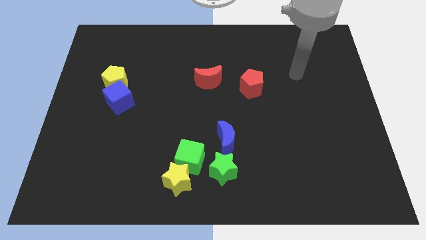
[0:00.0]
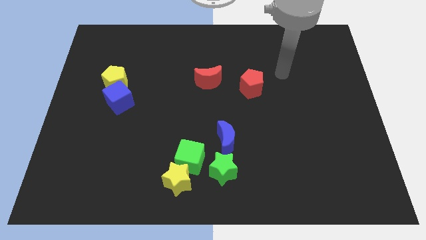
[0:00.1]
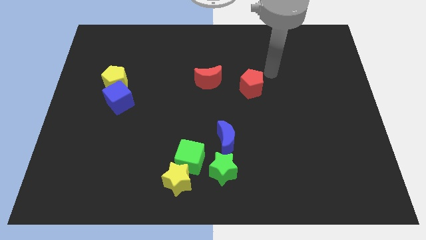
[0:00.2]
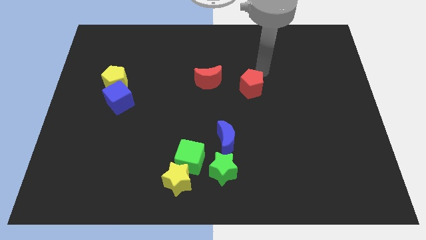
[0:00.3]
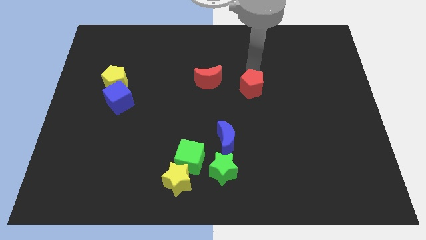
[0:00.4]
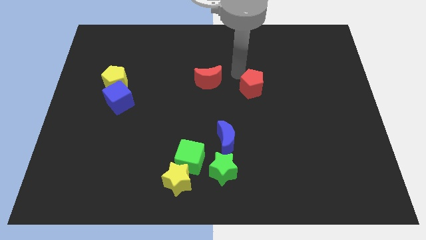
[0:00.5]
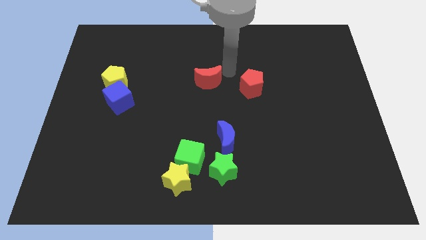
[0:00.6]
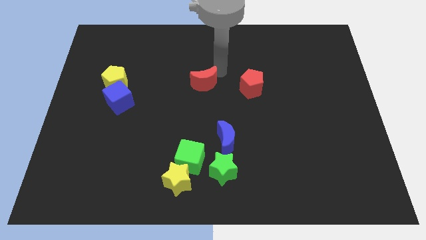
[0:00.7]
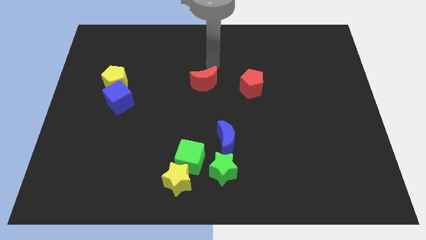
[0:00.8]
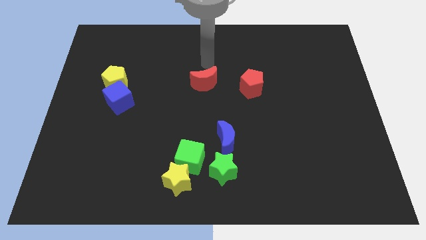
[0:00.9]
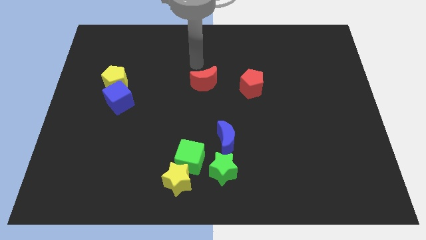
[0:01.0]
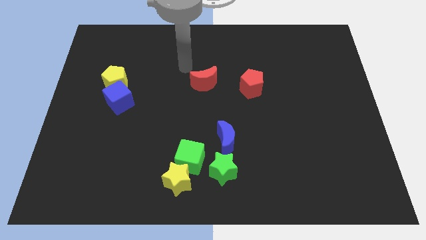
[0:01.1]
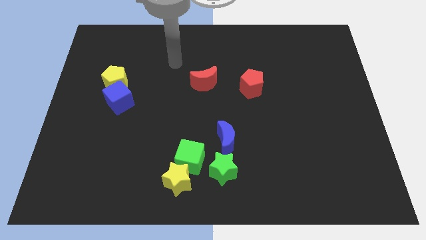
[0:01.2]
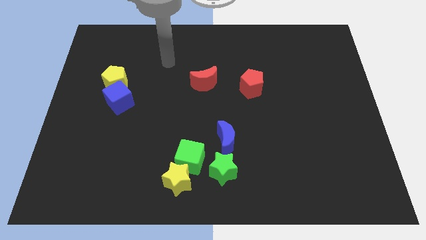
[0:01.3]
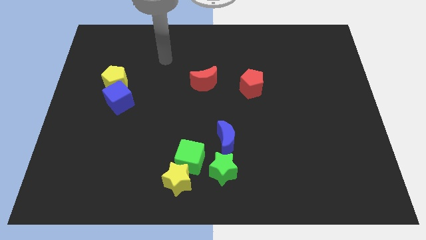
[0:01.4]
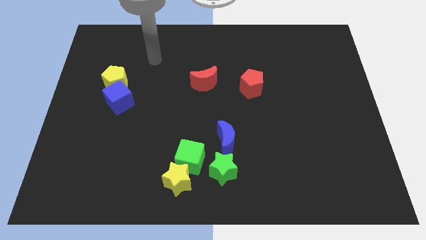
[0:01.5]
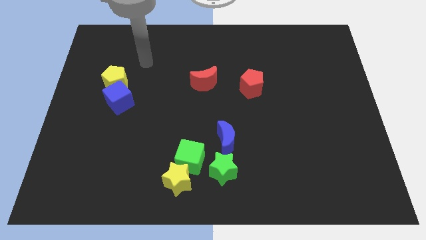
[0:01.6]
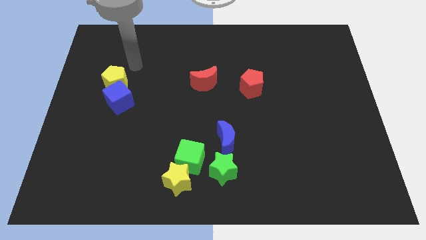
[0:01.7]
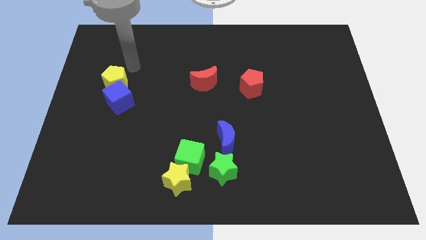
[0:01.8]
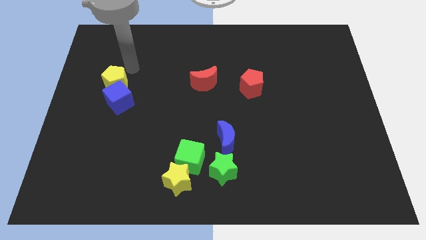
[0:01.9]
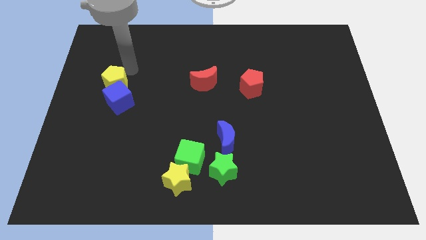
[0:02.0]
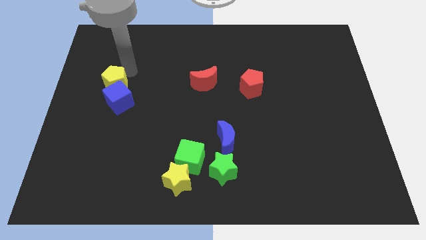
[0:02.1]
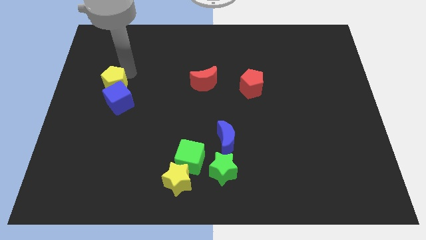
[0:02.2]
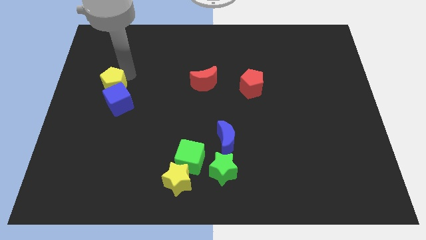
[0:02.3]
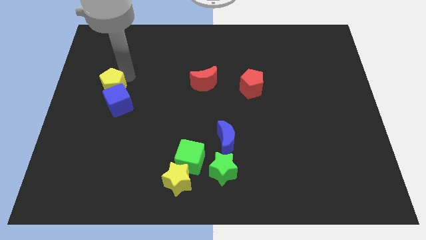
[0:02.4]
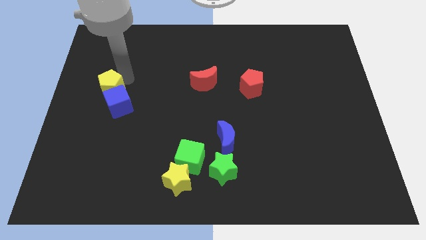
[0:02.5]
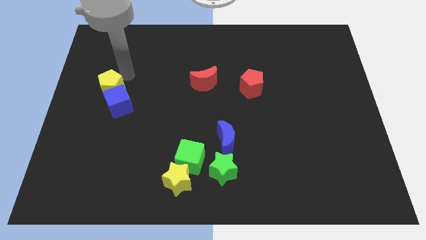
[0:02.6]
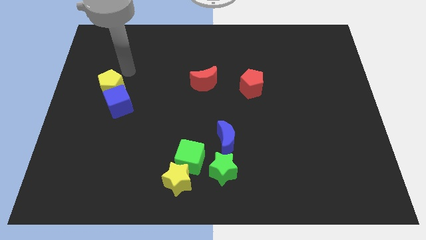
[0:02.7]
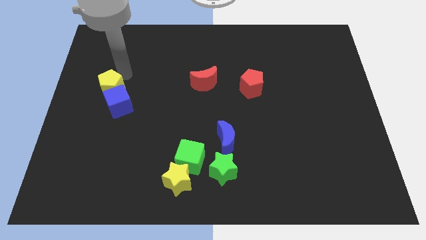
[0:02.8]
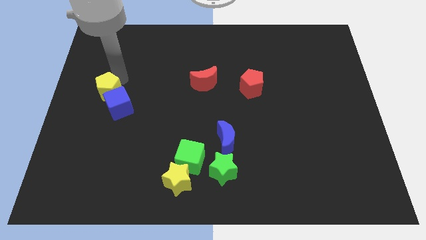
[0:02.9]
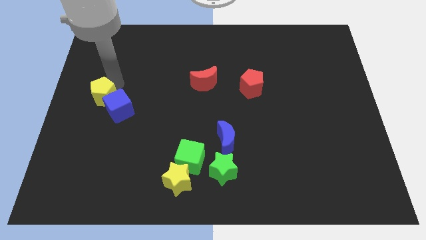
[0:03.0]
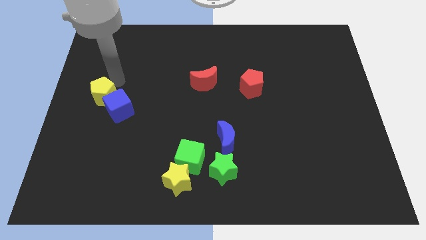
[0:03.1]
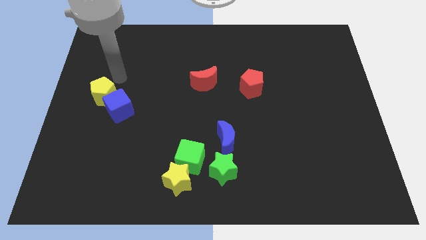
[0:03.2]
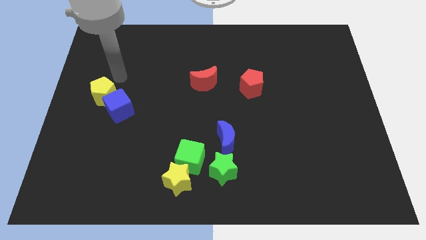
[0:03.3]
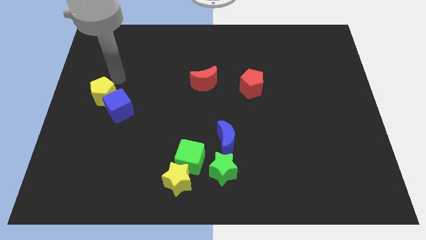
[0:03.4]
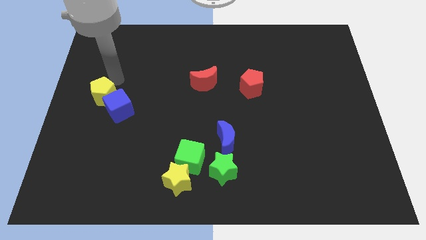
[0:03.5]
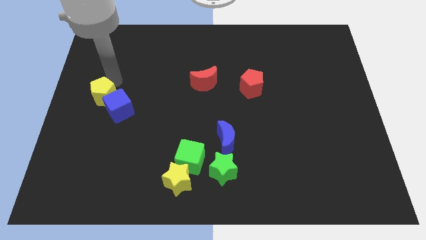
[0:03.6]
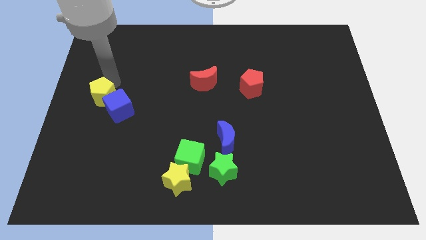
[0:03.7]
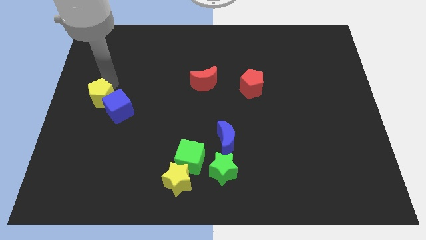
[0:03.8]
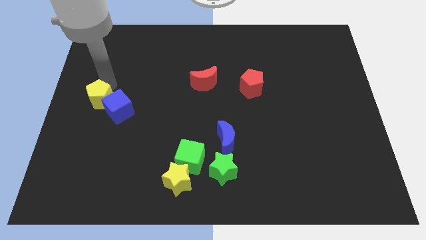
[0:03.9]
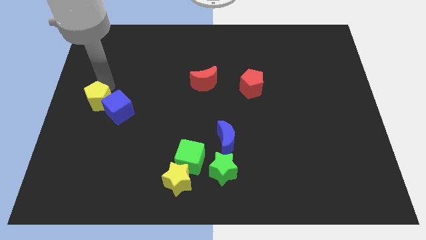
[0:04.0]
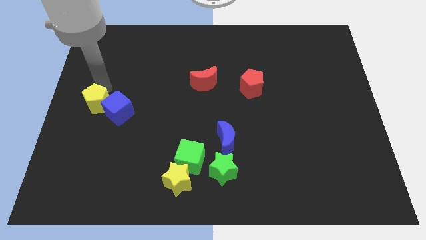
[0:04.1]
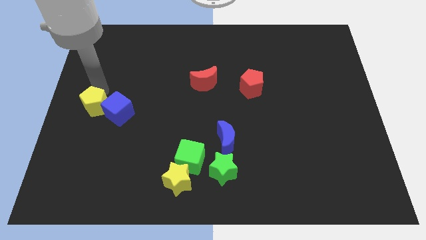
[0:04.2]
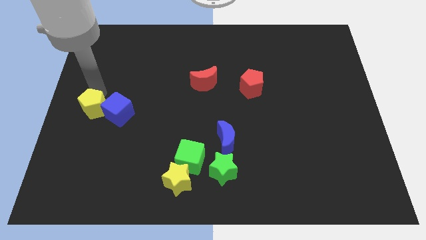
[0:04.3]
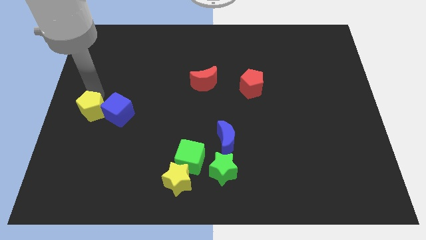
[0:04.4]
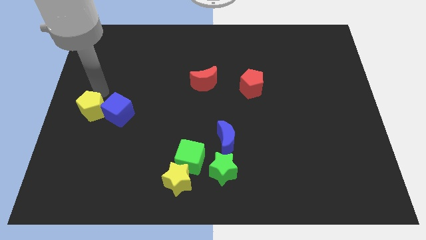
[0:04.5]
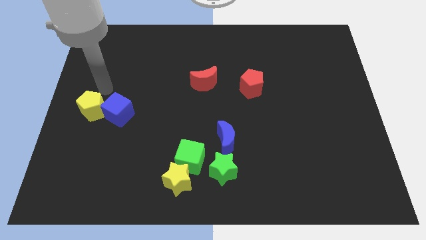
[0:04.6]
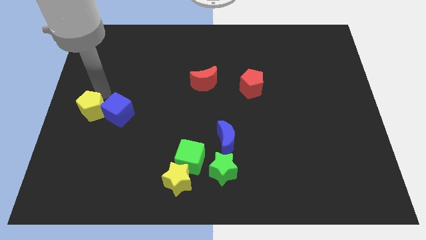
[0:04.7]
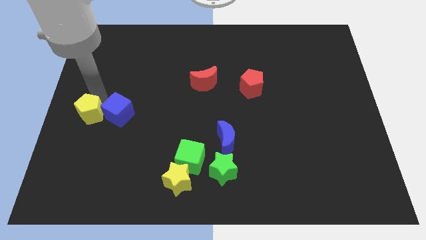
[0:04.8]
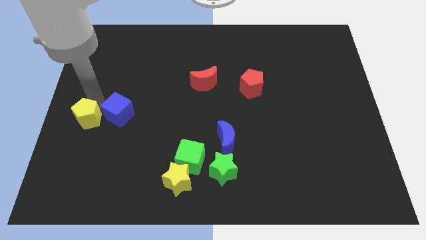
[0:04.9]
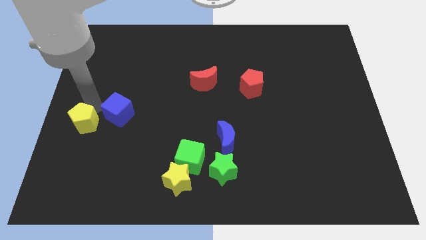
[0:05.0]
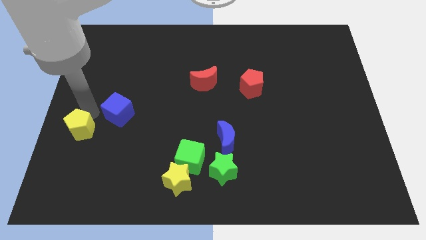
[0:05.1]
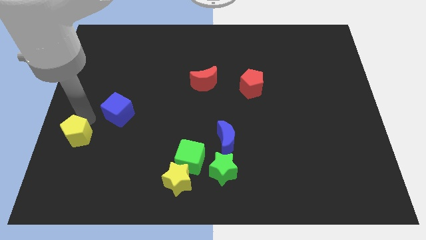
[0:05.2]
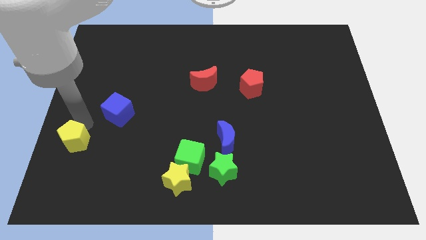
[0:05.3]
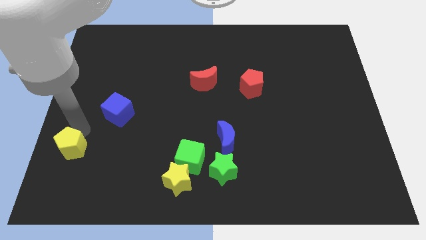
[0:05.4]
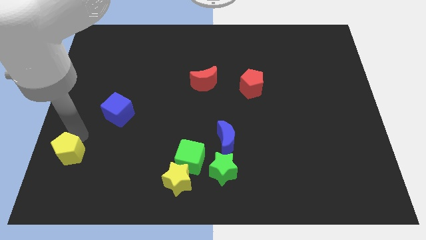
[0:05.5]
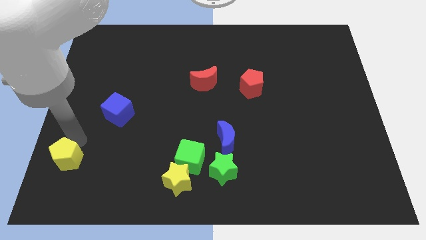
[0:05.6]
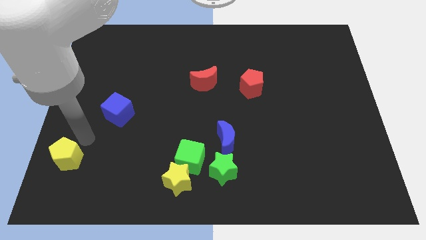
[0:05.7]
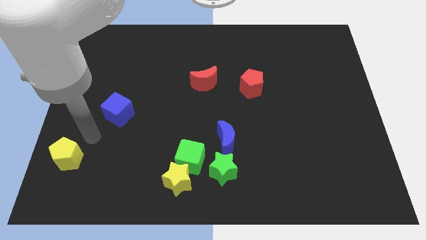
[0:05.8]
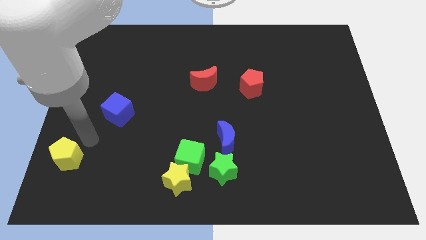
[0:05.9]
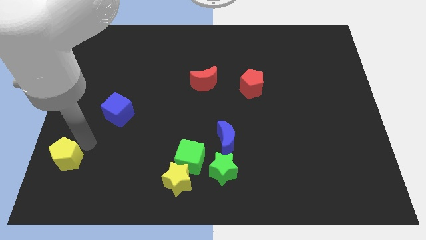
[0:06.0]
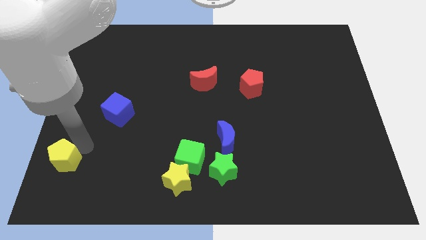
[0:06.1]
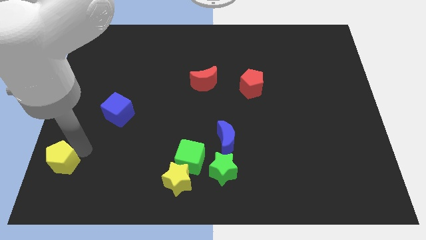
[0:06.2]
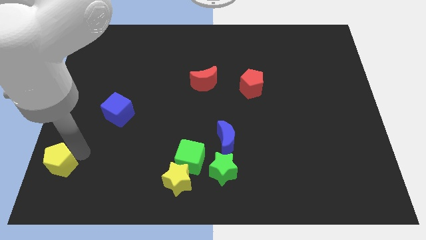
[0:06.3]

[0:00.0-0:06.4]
slide the yellow pentagon to the bottom left
